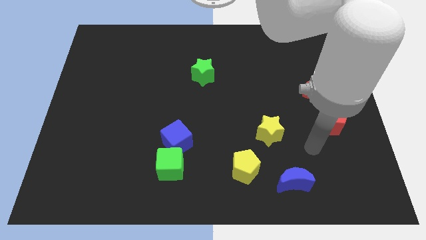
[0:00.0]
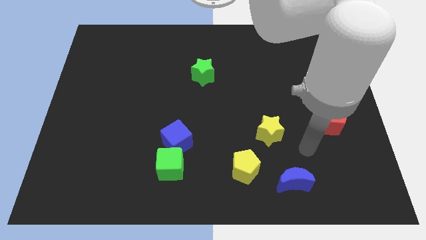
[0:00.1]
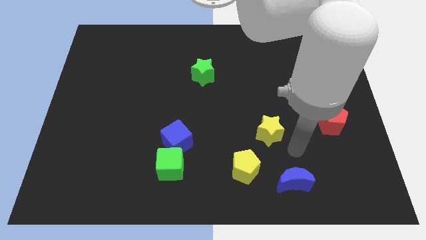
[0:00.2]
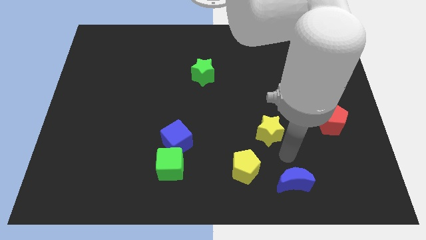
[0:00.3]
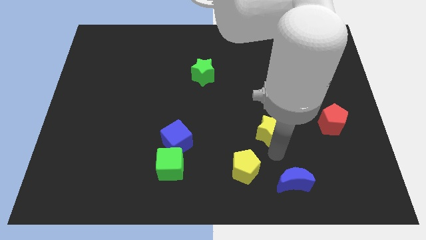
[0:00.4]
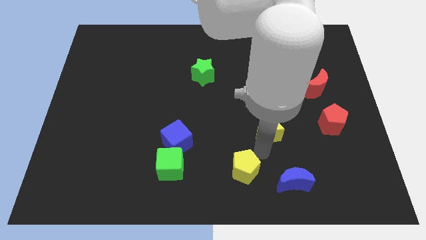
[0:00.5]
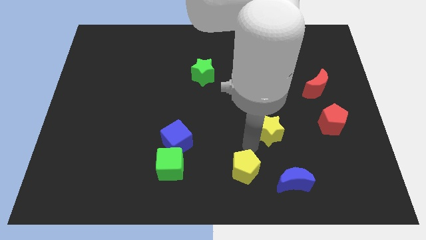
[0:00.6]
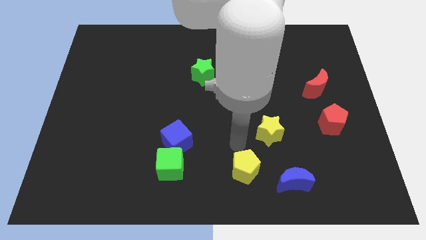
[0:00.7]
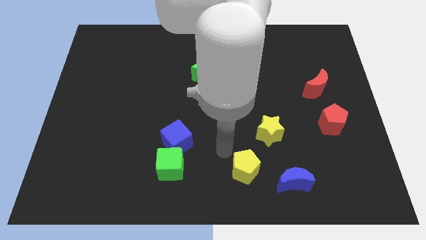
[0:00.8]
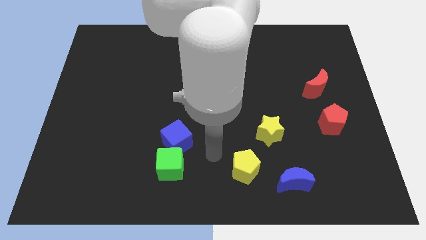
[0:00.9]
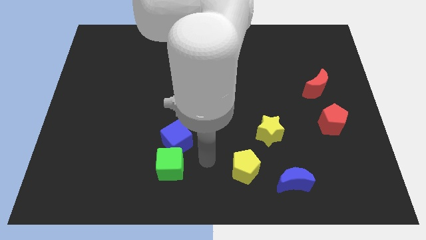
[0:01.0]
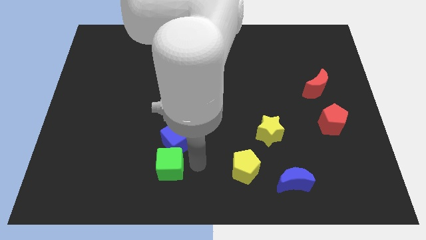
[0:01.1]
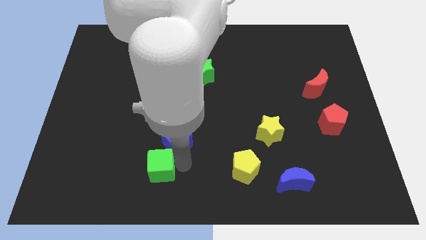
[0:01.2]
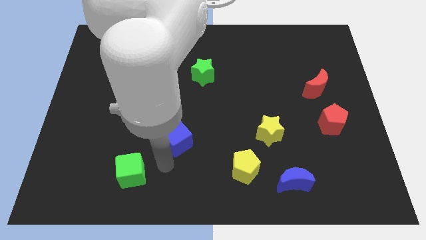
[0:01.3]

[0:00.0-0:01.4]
separate the blue cube from the green cube

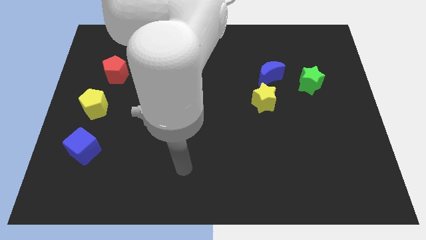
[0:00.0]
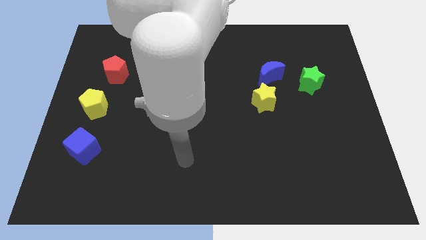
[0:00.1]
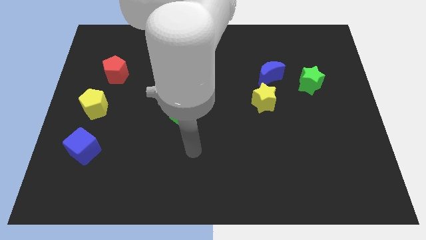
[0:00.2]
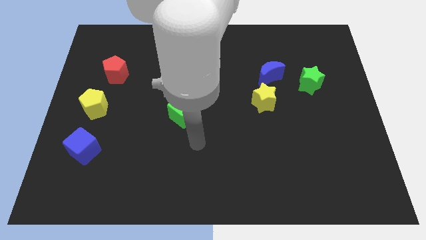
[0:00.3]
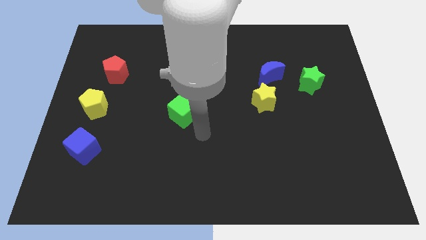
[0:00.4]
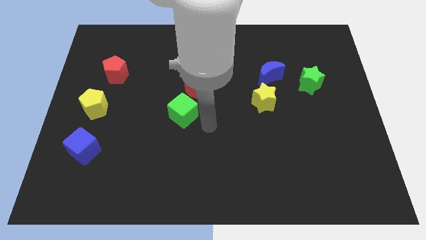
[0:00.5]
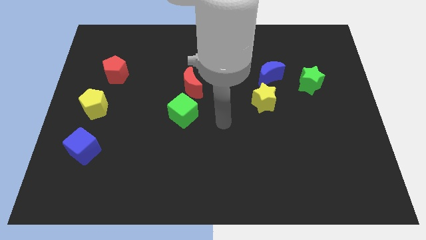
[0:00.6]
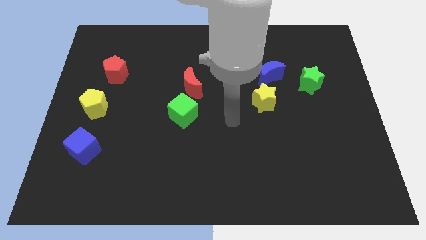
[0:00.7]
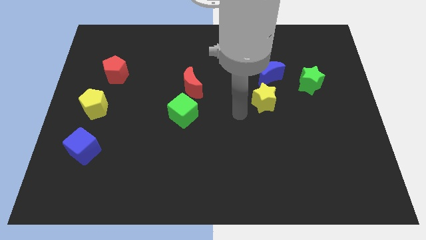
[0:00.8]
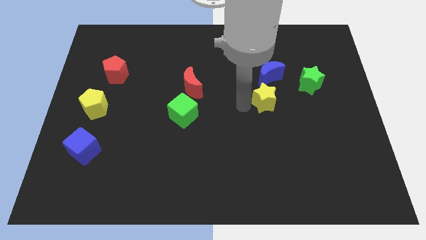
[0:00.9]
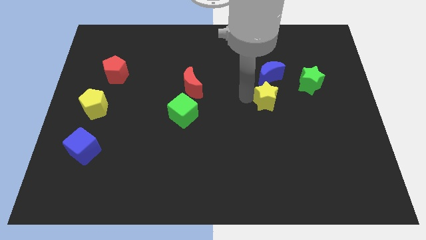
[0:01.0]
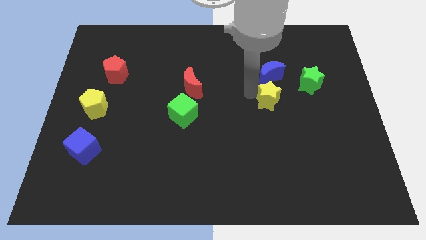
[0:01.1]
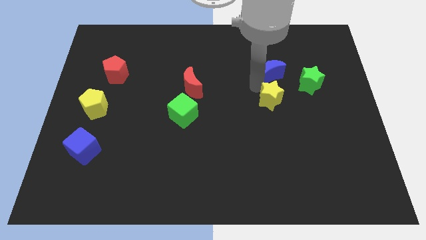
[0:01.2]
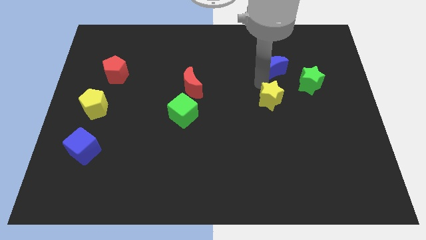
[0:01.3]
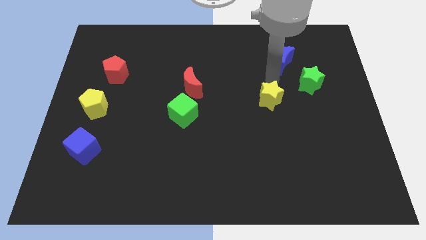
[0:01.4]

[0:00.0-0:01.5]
separate the yellow star from the blue moon

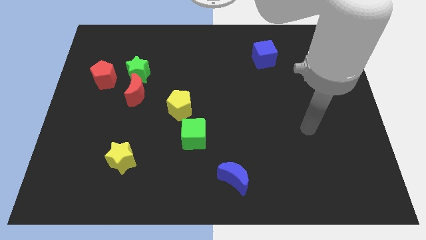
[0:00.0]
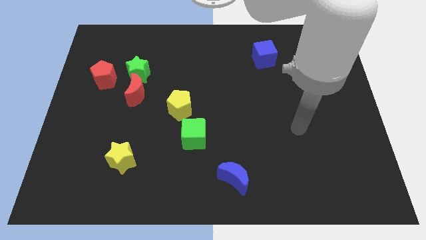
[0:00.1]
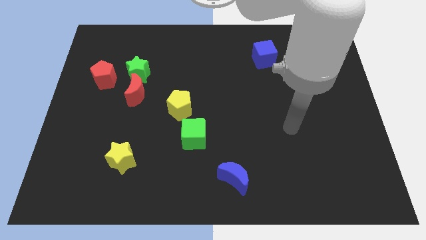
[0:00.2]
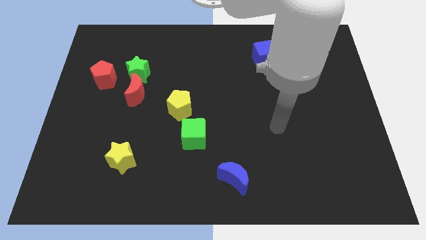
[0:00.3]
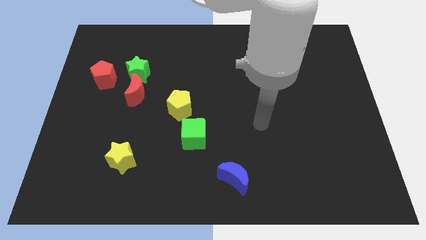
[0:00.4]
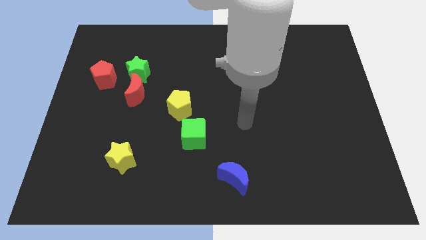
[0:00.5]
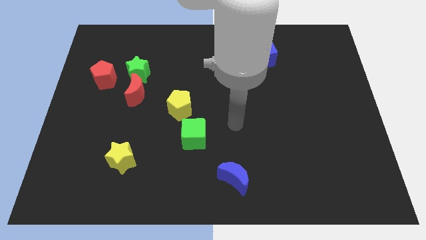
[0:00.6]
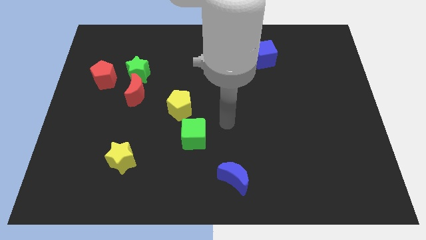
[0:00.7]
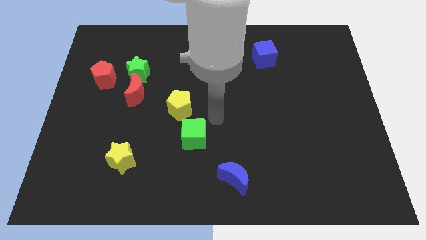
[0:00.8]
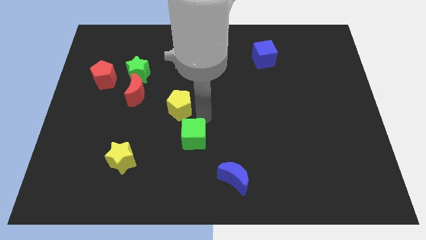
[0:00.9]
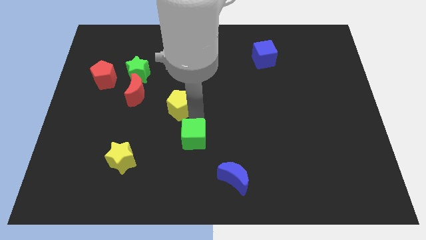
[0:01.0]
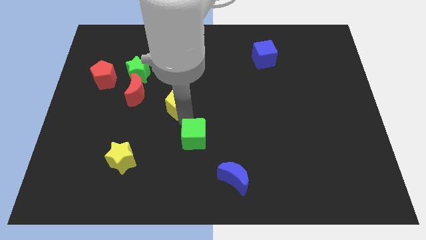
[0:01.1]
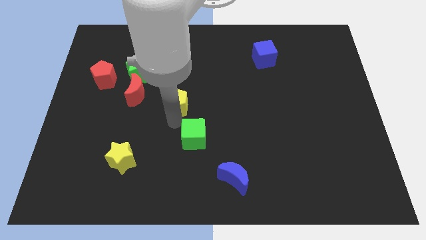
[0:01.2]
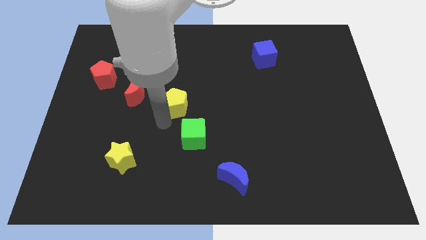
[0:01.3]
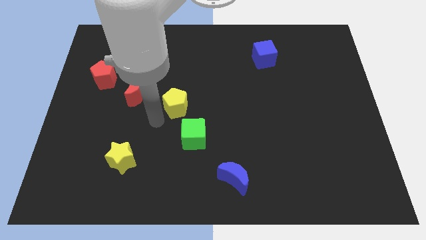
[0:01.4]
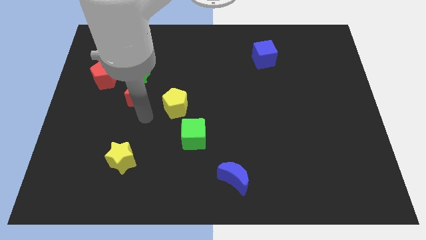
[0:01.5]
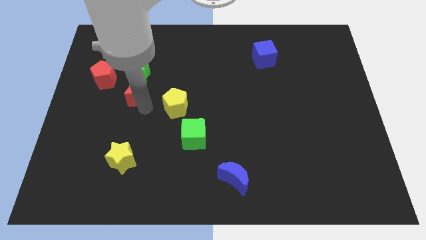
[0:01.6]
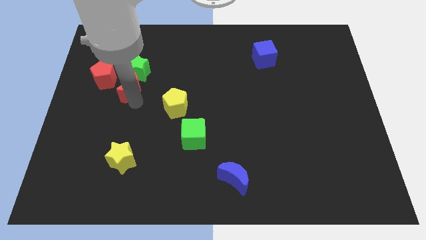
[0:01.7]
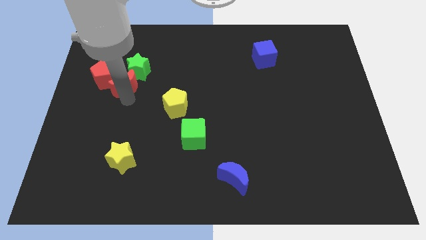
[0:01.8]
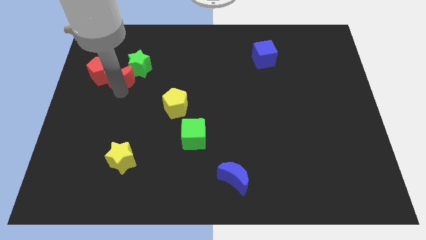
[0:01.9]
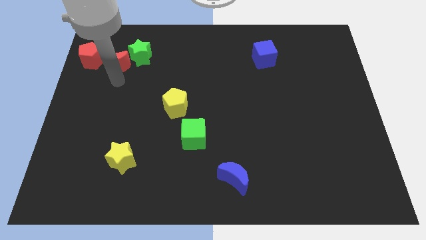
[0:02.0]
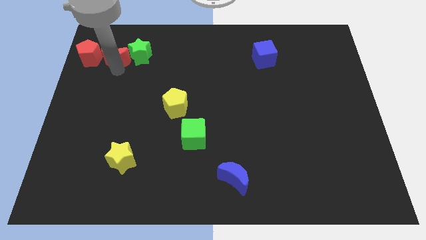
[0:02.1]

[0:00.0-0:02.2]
move the green star away from the red moon and red pentagon

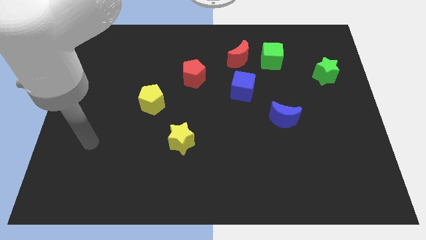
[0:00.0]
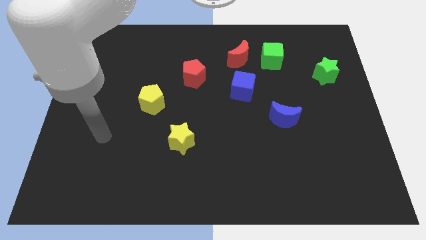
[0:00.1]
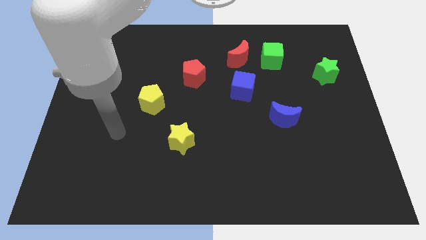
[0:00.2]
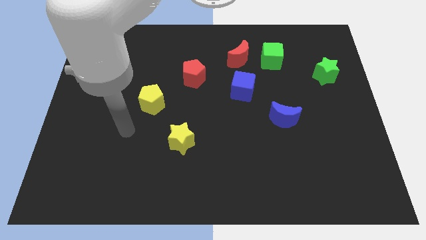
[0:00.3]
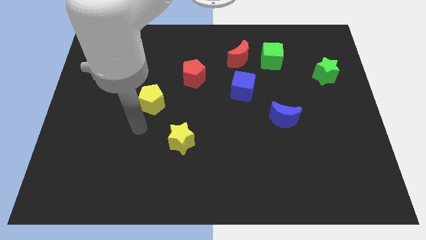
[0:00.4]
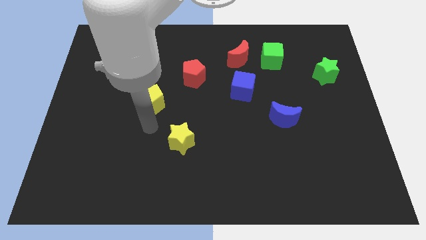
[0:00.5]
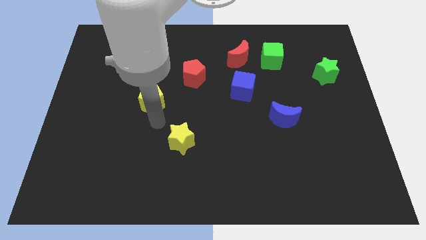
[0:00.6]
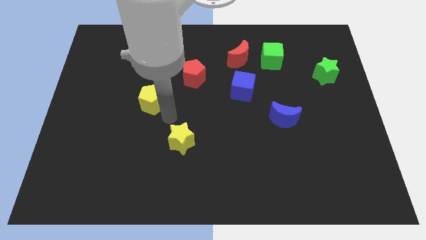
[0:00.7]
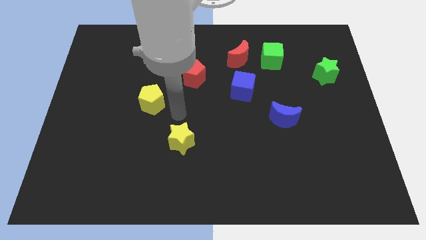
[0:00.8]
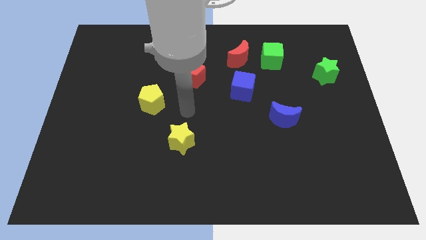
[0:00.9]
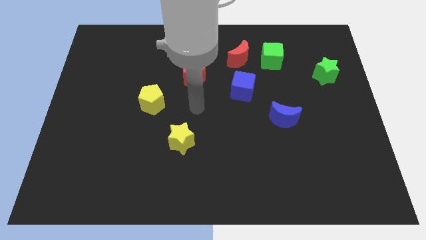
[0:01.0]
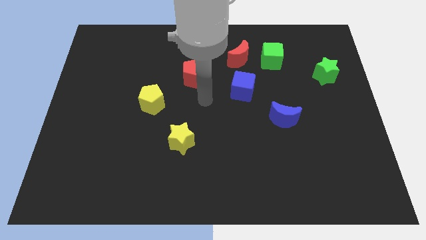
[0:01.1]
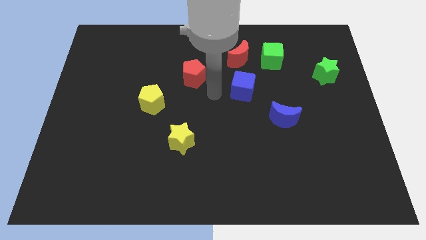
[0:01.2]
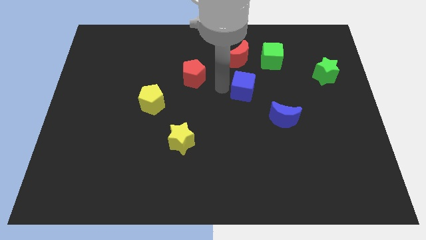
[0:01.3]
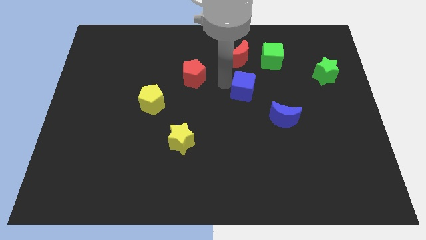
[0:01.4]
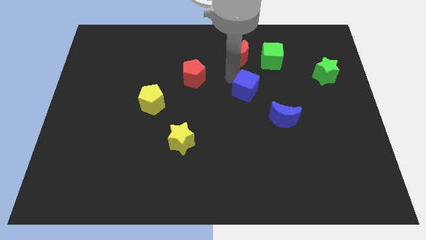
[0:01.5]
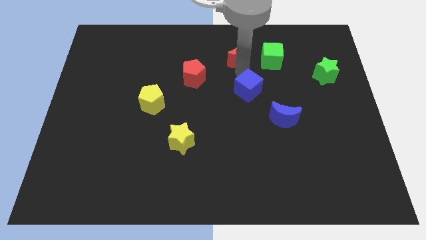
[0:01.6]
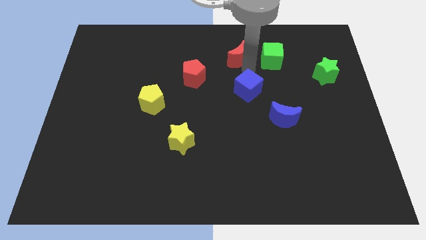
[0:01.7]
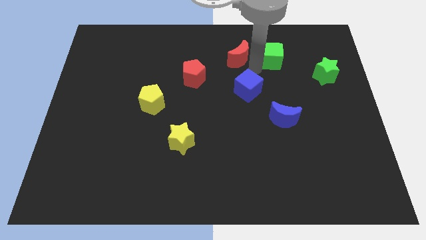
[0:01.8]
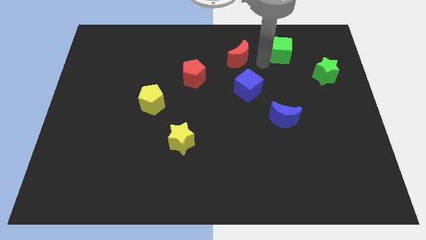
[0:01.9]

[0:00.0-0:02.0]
pull the red moon apart from the green cube

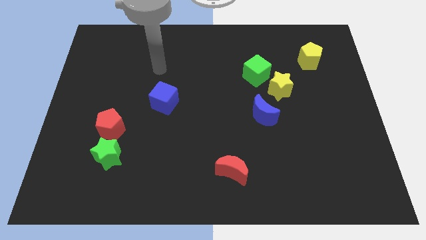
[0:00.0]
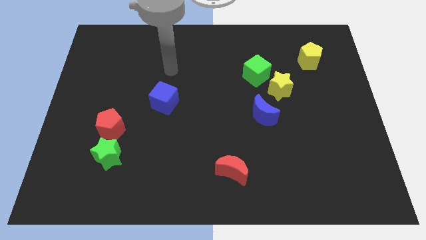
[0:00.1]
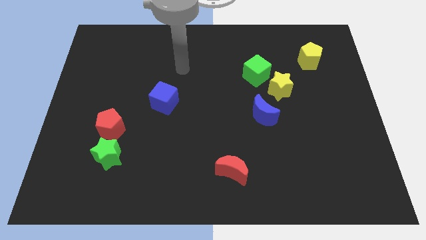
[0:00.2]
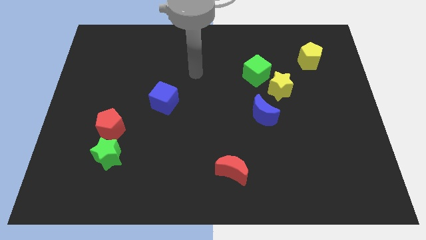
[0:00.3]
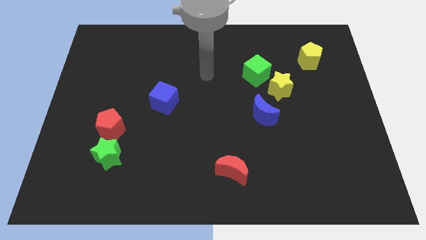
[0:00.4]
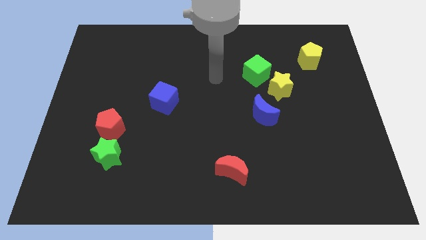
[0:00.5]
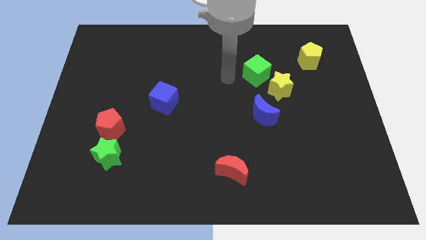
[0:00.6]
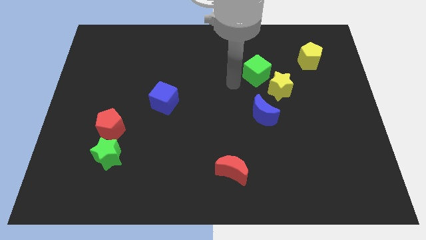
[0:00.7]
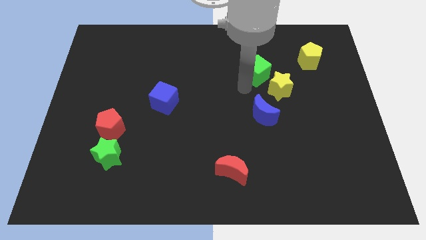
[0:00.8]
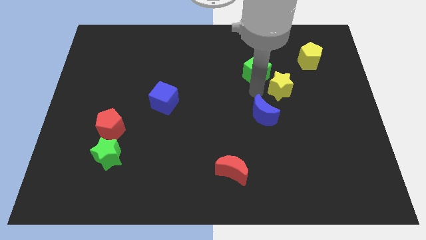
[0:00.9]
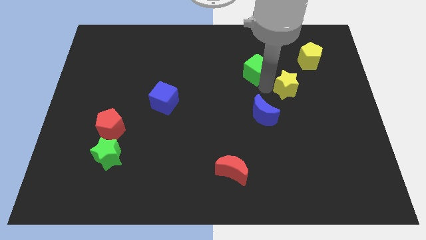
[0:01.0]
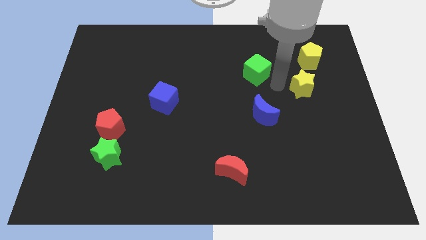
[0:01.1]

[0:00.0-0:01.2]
move the green cube away from the yellow star

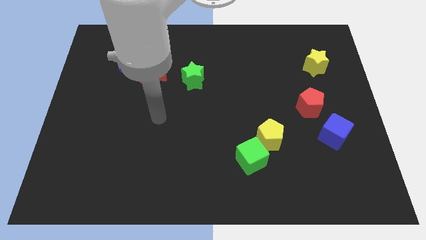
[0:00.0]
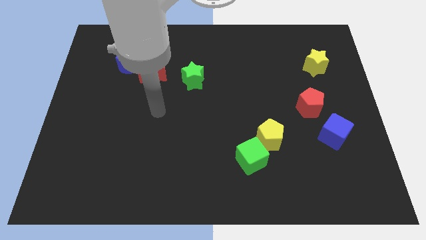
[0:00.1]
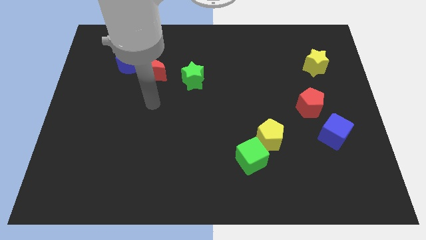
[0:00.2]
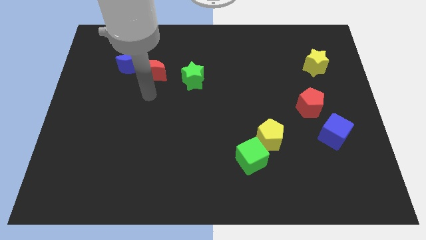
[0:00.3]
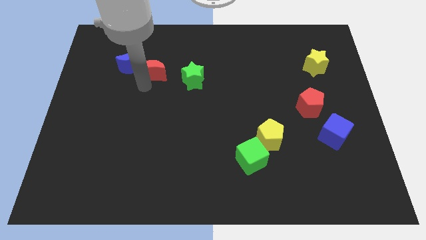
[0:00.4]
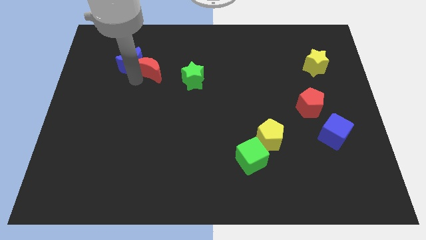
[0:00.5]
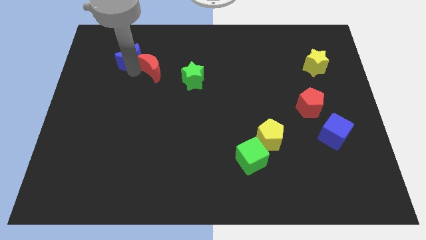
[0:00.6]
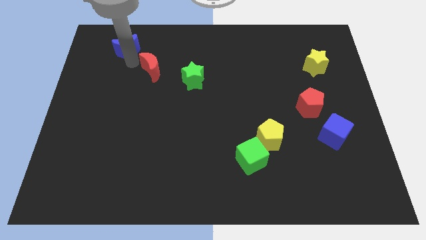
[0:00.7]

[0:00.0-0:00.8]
pull the red moon apart from the blue moon

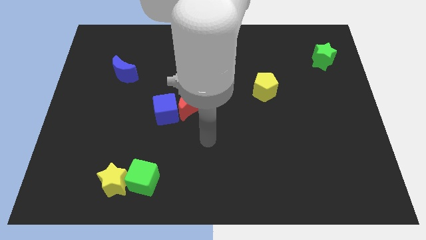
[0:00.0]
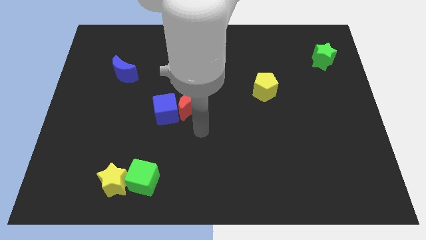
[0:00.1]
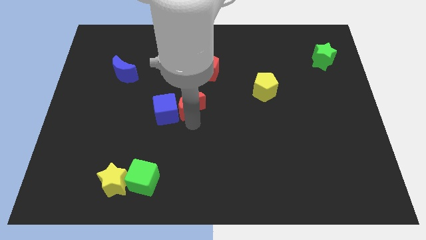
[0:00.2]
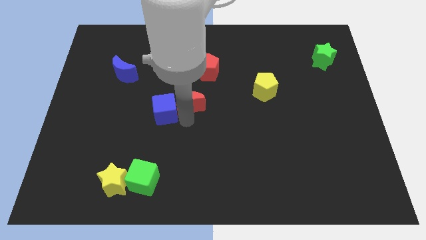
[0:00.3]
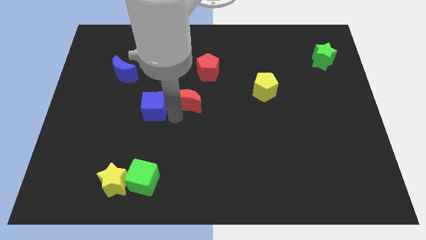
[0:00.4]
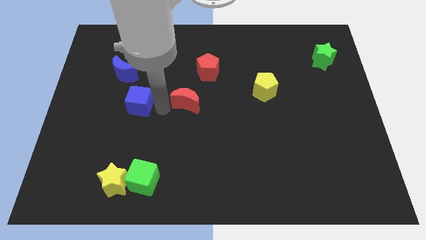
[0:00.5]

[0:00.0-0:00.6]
move the red moon away from the blue cube
